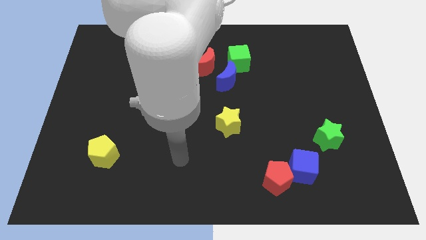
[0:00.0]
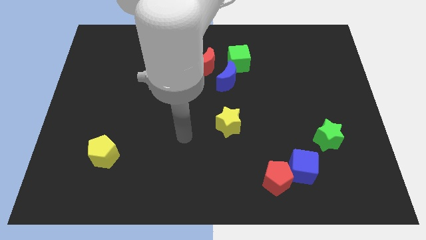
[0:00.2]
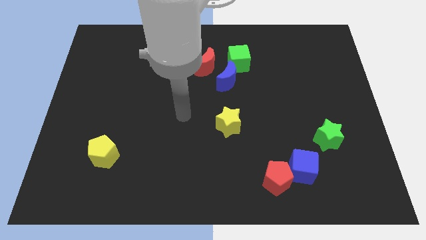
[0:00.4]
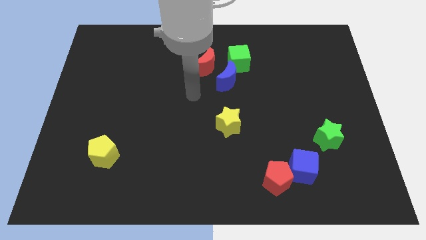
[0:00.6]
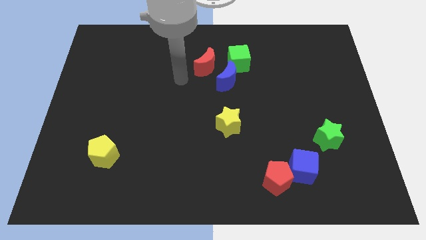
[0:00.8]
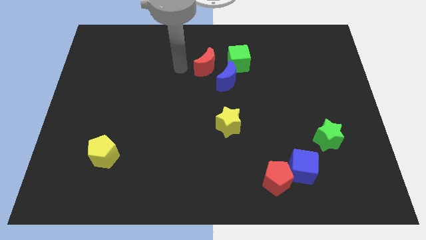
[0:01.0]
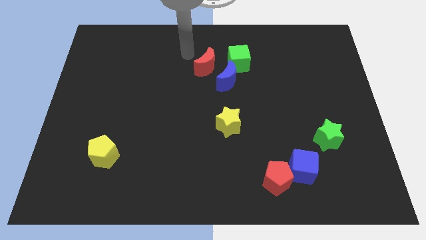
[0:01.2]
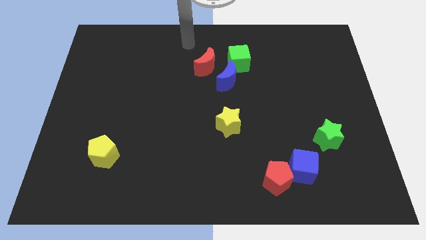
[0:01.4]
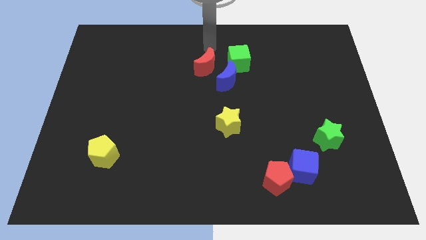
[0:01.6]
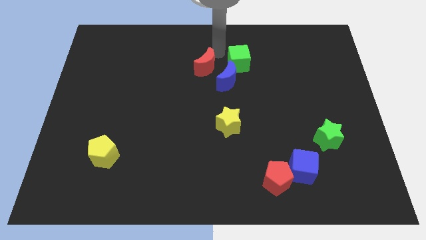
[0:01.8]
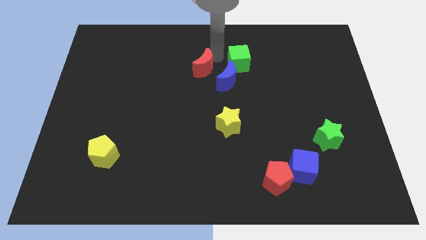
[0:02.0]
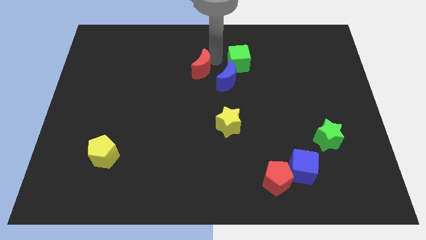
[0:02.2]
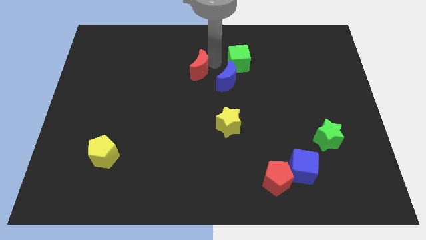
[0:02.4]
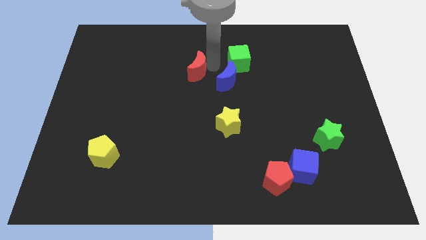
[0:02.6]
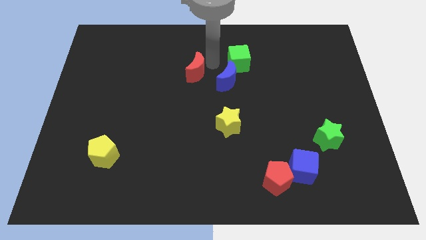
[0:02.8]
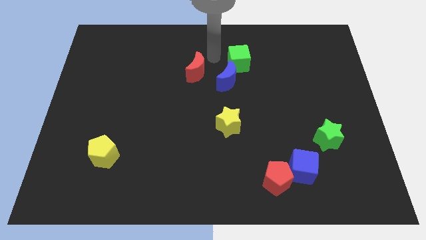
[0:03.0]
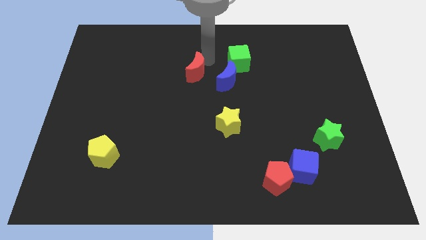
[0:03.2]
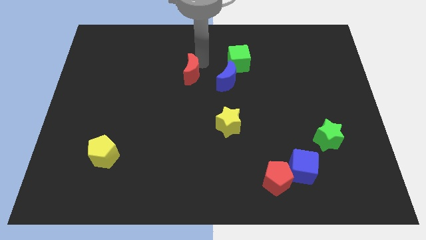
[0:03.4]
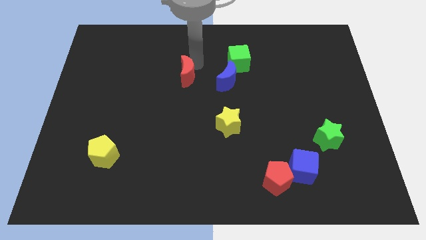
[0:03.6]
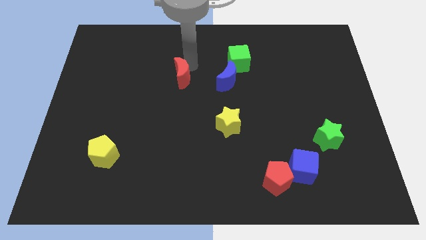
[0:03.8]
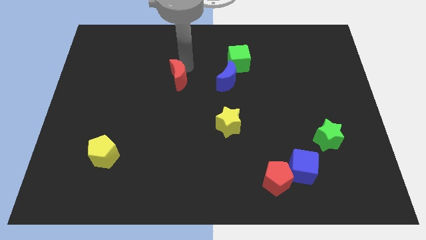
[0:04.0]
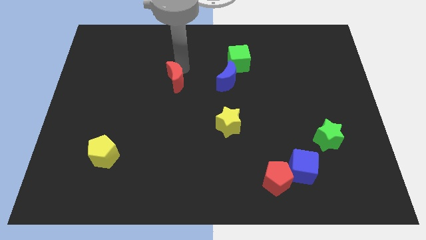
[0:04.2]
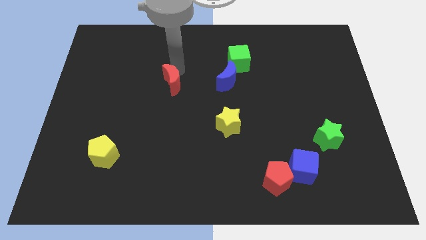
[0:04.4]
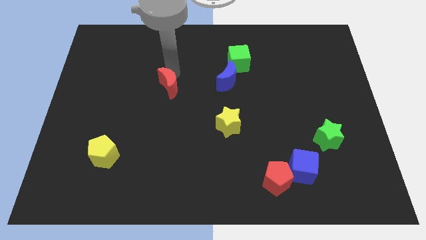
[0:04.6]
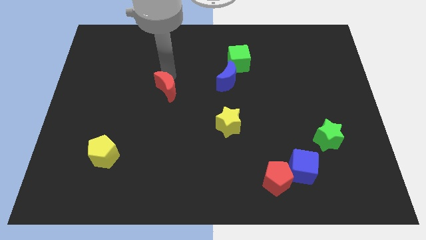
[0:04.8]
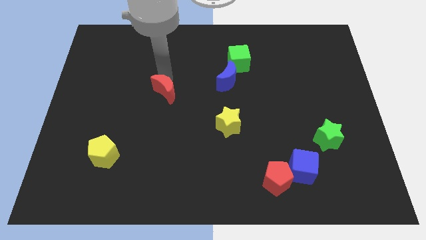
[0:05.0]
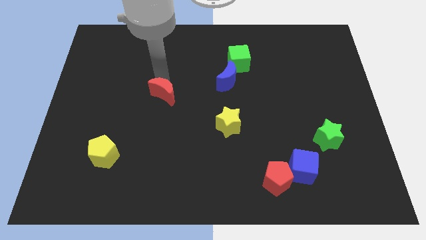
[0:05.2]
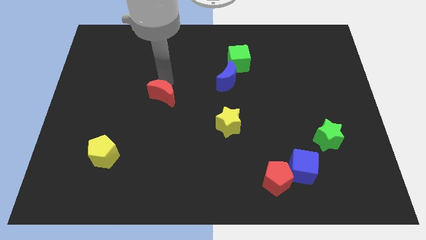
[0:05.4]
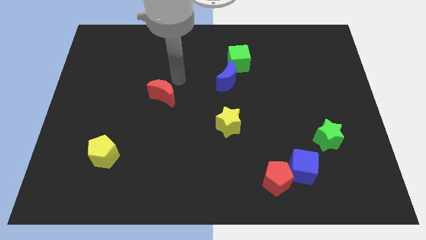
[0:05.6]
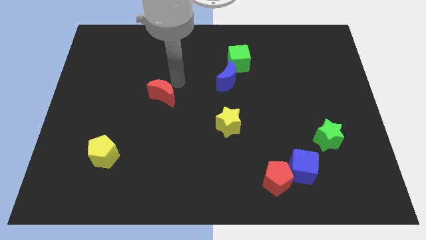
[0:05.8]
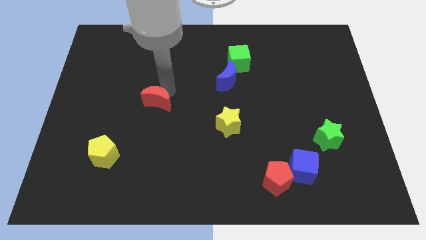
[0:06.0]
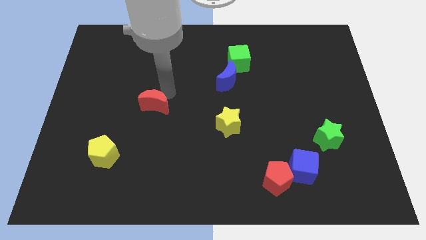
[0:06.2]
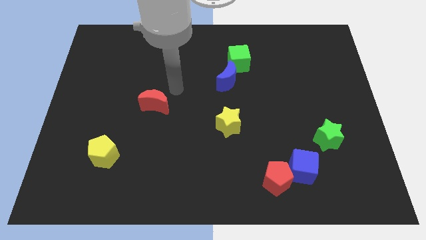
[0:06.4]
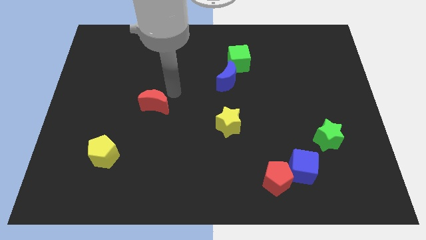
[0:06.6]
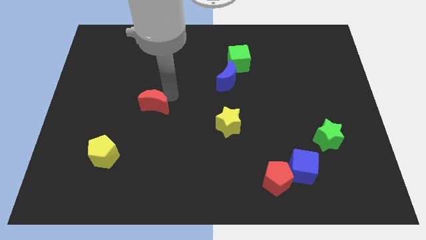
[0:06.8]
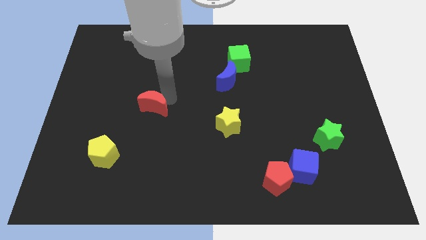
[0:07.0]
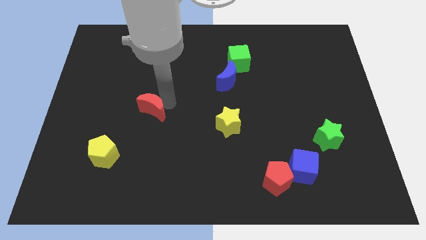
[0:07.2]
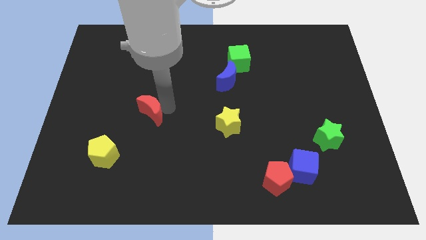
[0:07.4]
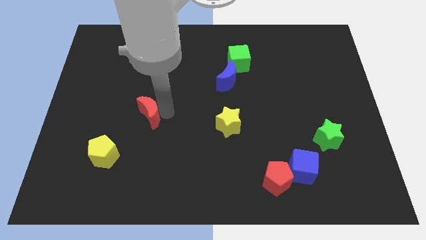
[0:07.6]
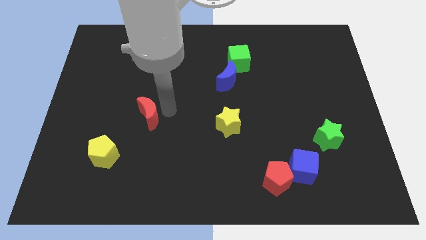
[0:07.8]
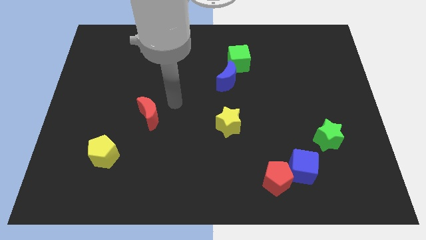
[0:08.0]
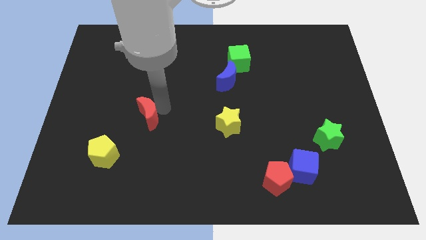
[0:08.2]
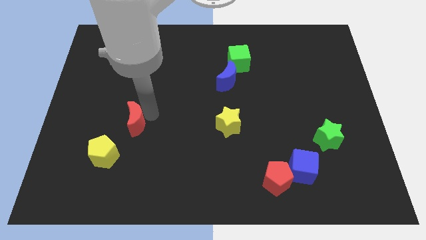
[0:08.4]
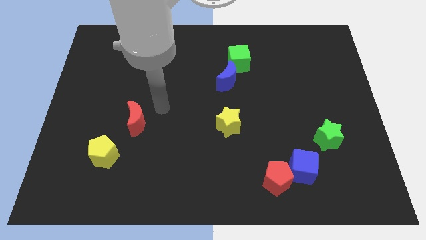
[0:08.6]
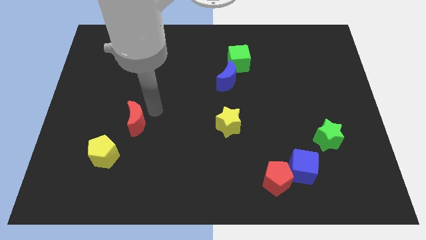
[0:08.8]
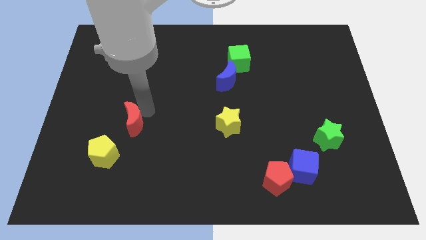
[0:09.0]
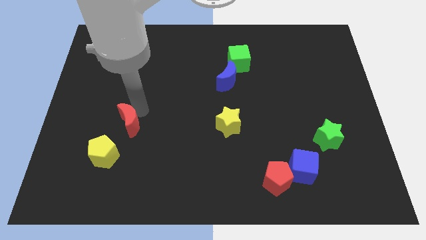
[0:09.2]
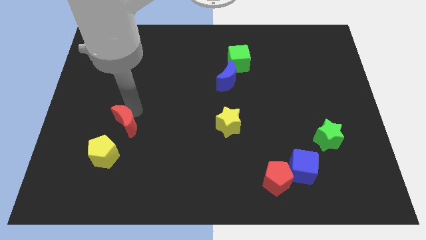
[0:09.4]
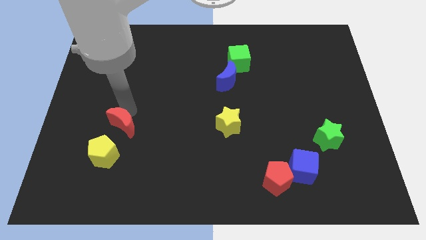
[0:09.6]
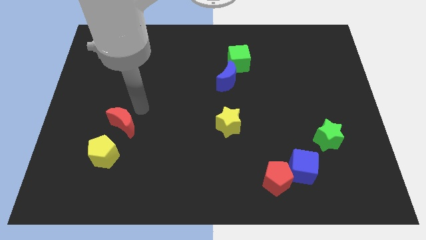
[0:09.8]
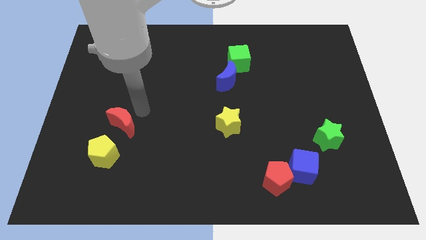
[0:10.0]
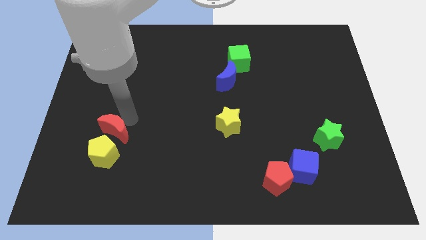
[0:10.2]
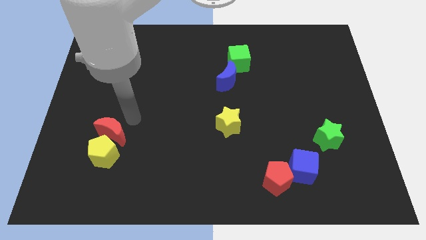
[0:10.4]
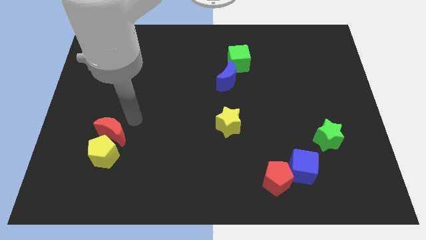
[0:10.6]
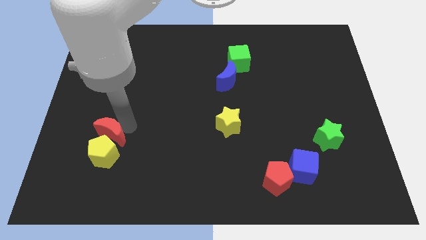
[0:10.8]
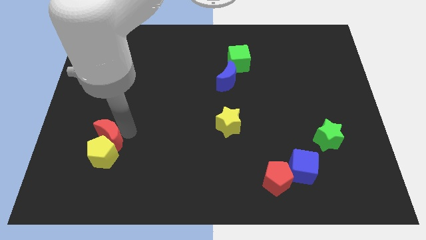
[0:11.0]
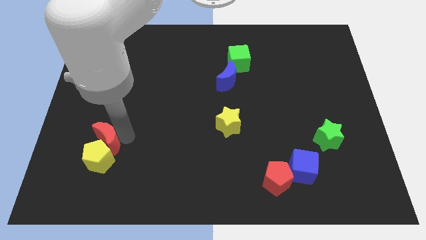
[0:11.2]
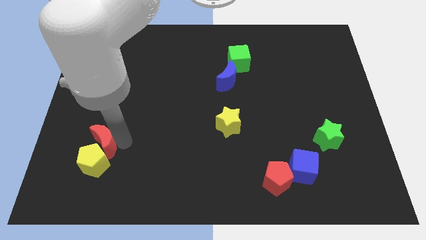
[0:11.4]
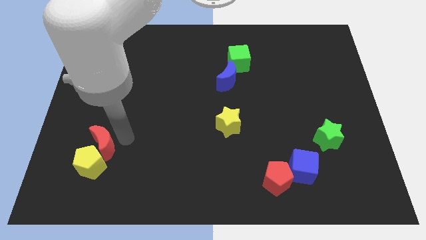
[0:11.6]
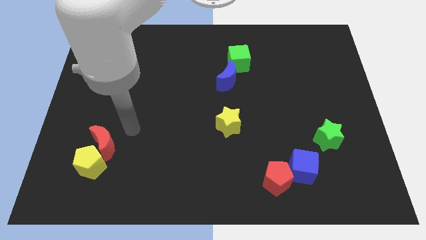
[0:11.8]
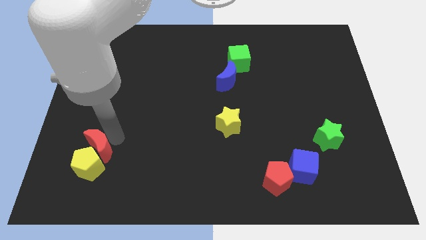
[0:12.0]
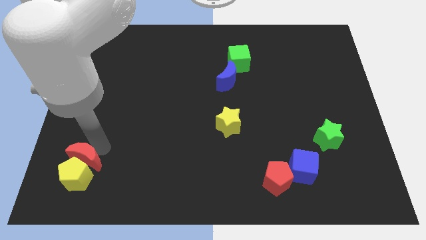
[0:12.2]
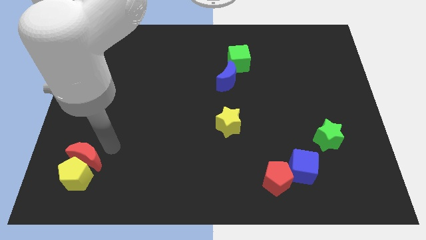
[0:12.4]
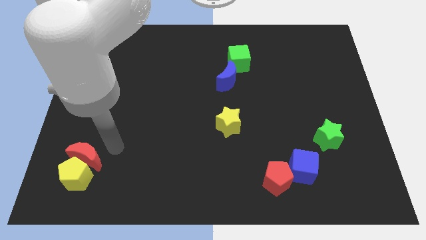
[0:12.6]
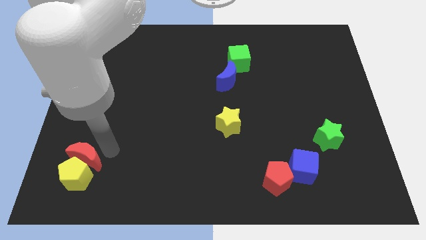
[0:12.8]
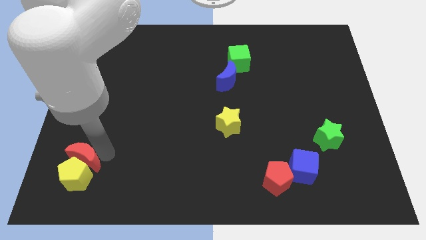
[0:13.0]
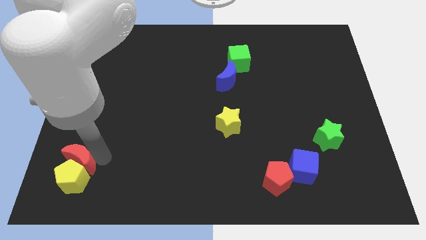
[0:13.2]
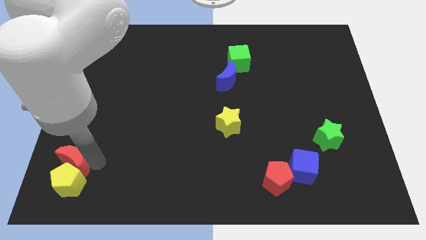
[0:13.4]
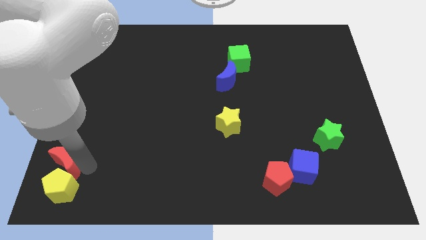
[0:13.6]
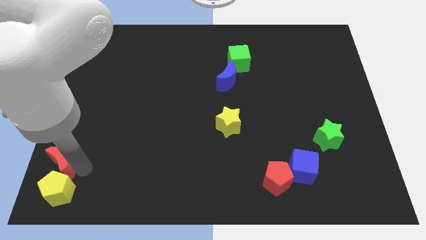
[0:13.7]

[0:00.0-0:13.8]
put the red moon to the bottom left of the board
